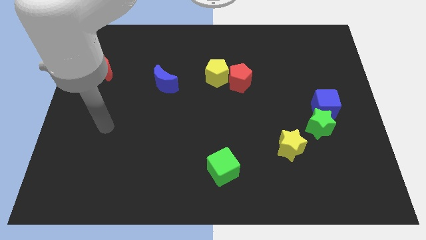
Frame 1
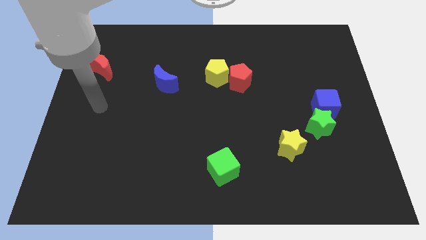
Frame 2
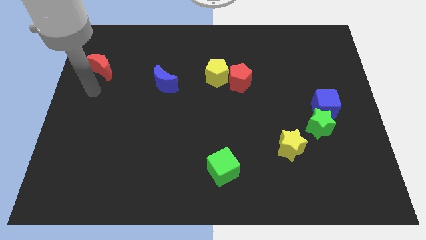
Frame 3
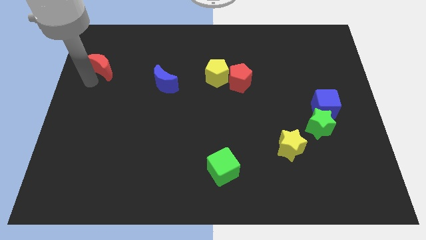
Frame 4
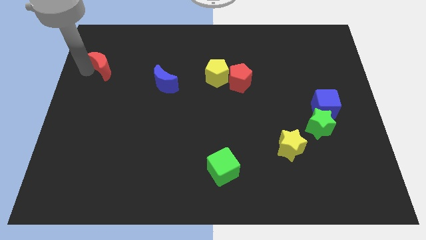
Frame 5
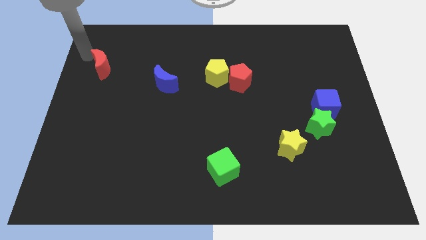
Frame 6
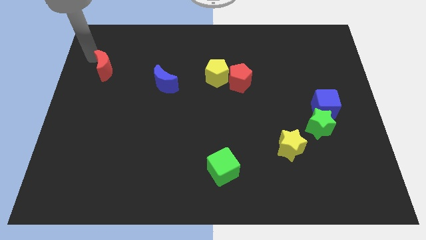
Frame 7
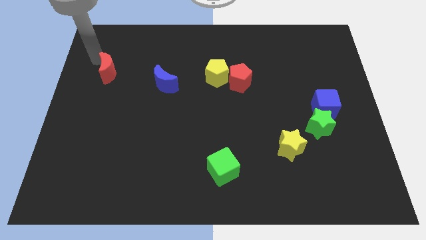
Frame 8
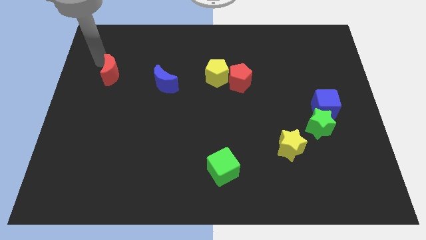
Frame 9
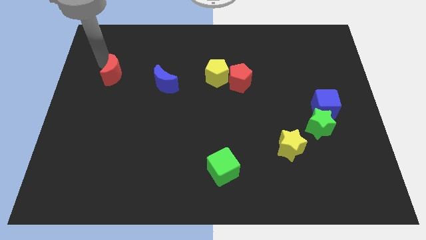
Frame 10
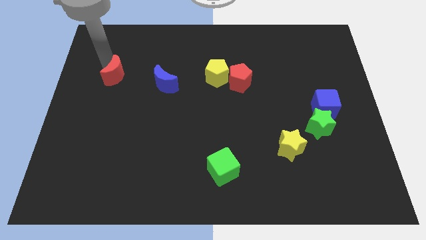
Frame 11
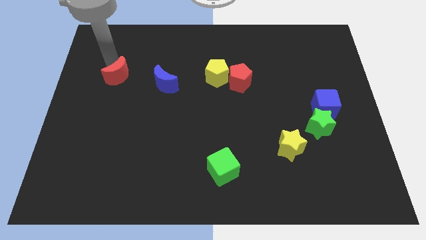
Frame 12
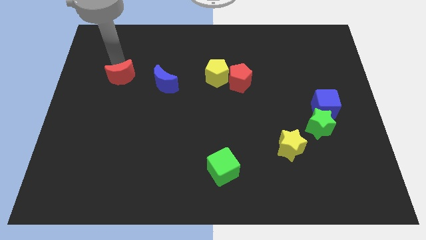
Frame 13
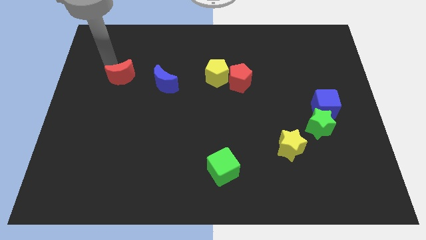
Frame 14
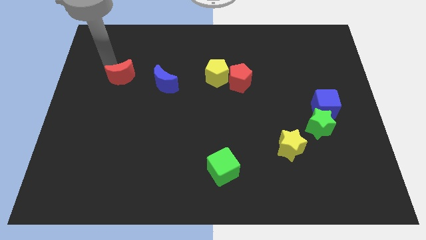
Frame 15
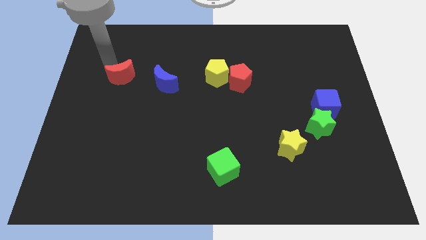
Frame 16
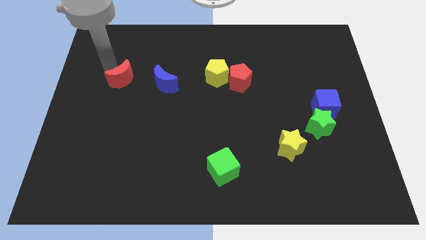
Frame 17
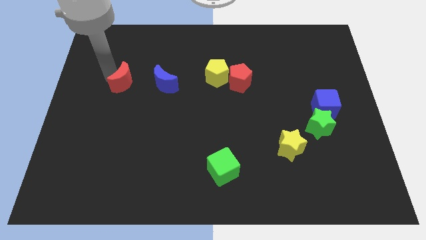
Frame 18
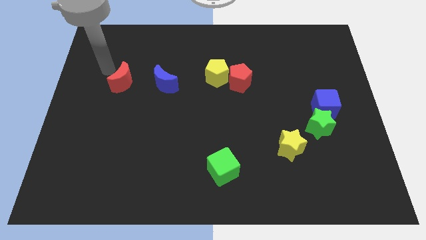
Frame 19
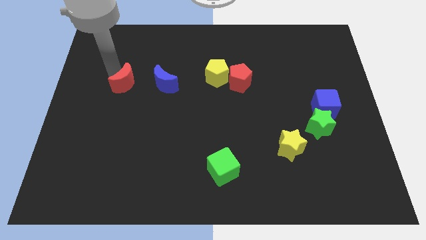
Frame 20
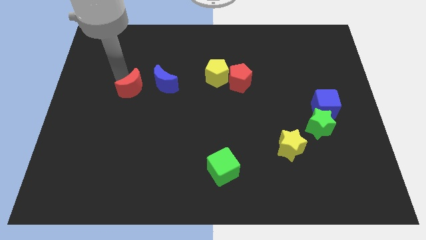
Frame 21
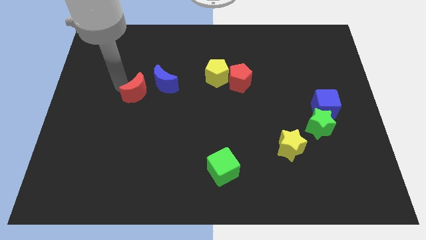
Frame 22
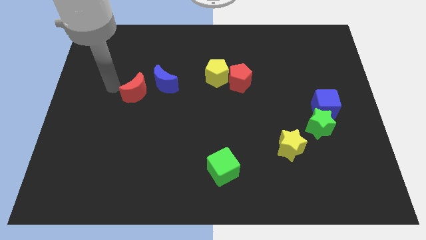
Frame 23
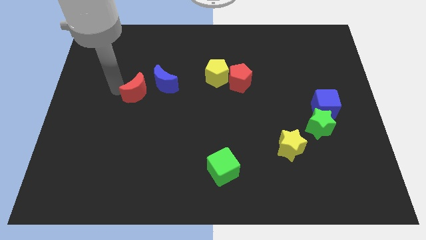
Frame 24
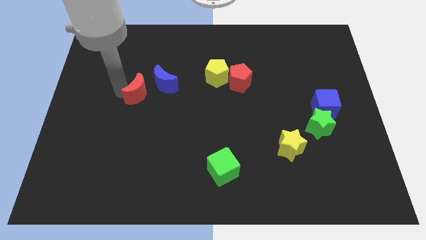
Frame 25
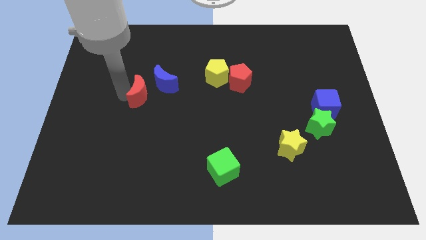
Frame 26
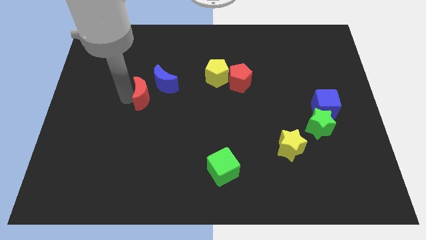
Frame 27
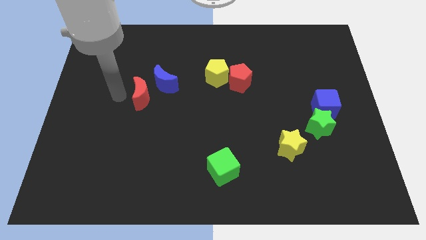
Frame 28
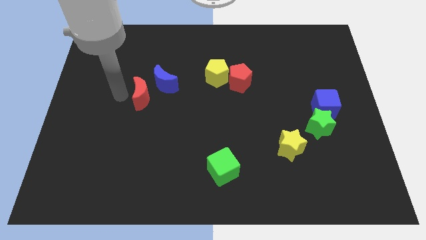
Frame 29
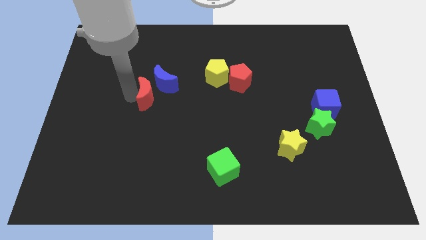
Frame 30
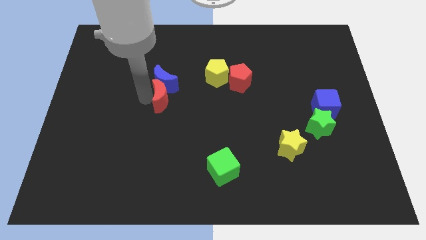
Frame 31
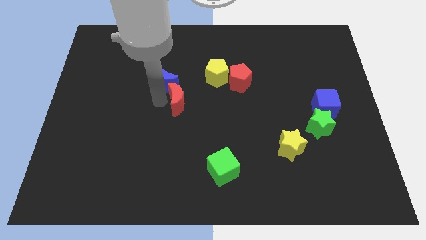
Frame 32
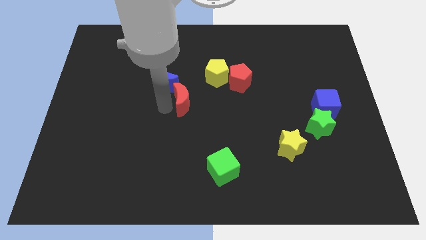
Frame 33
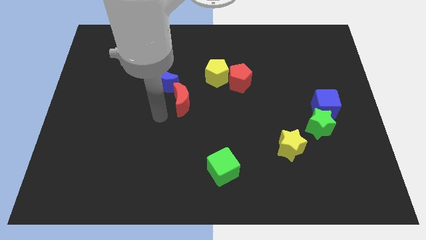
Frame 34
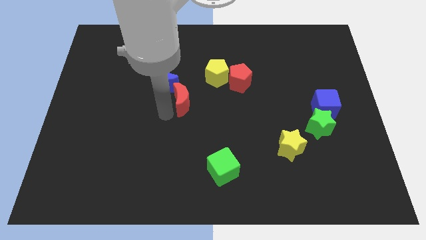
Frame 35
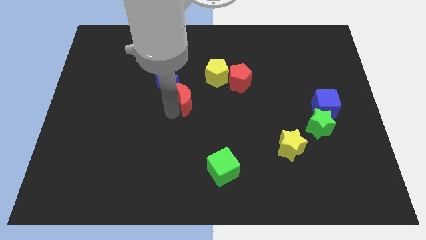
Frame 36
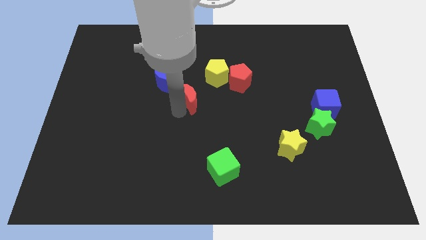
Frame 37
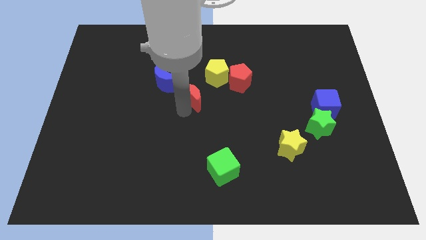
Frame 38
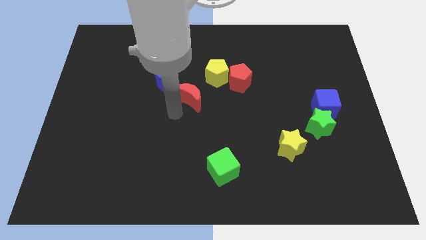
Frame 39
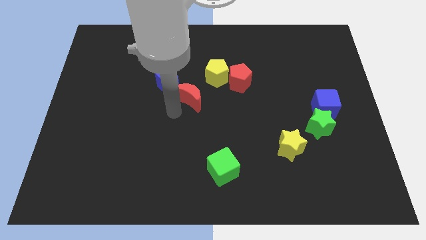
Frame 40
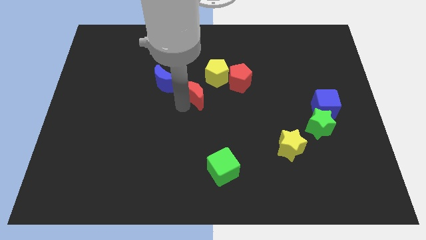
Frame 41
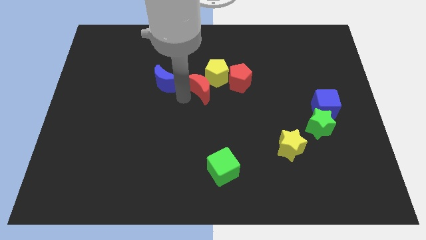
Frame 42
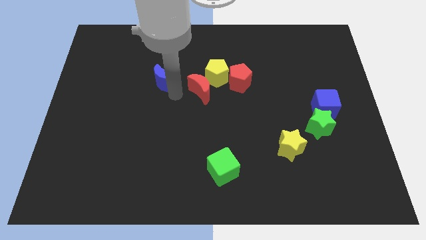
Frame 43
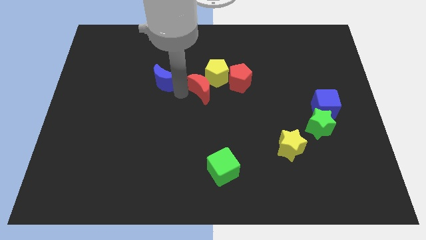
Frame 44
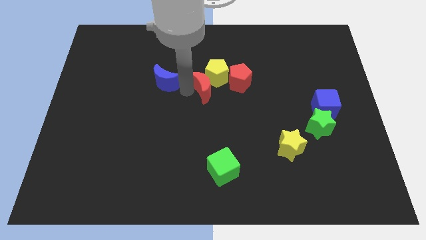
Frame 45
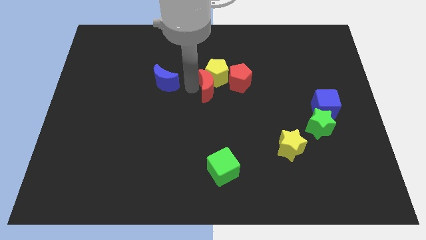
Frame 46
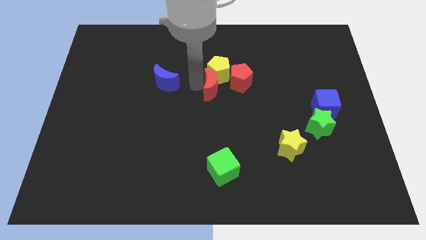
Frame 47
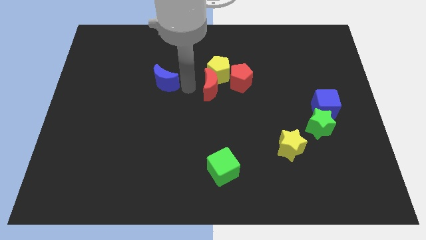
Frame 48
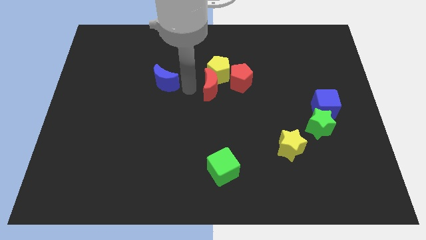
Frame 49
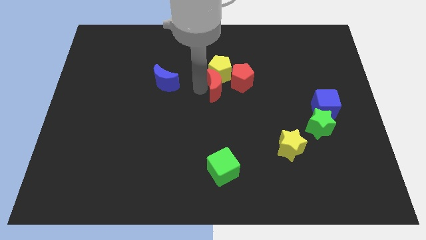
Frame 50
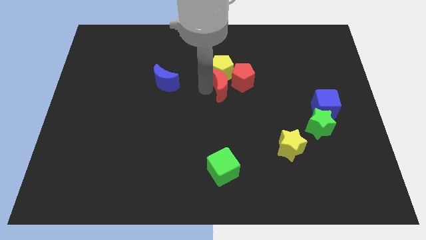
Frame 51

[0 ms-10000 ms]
slide the red moon close to the red pentagon

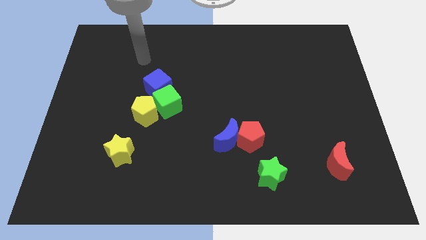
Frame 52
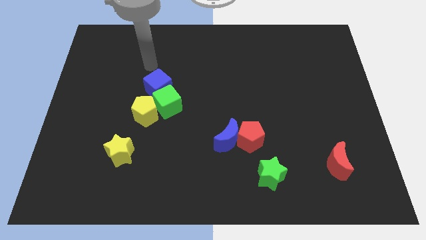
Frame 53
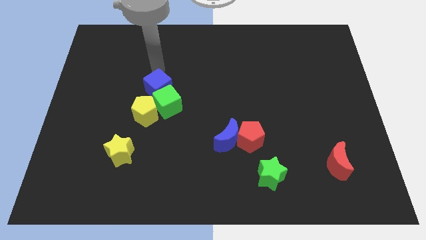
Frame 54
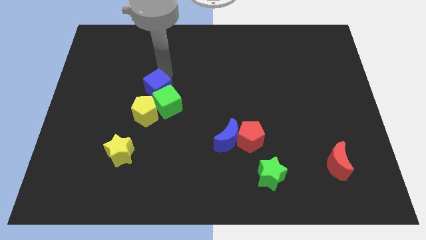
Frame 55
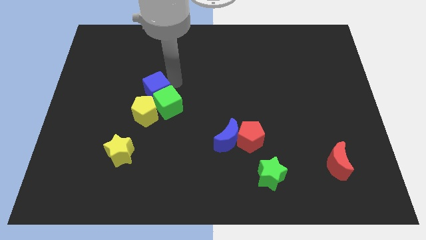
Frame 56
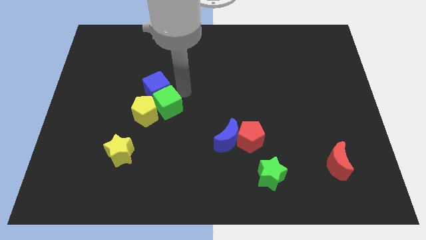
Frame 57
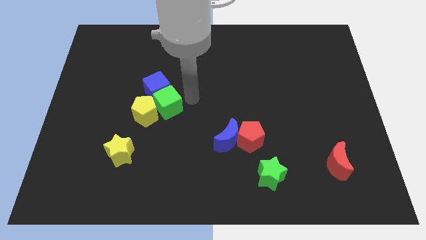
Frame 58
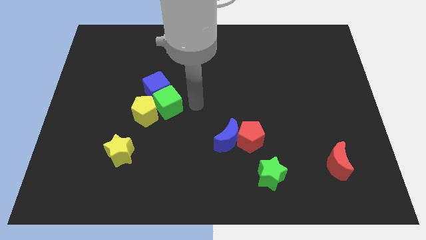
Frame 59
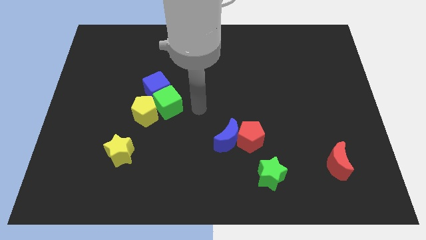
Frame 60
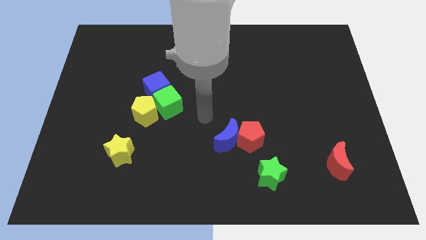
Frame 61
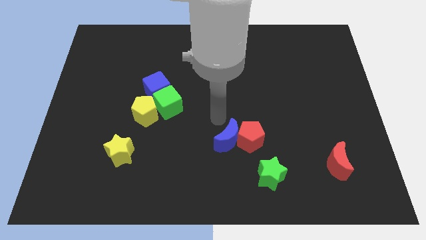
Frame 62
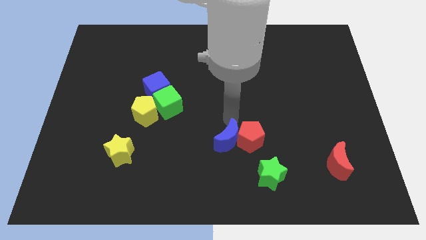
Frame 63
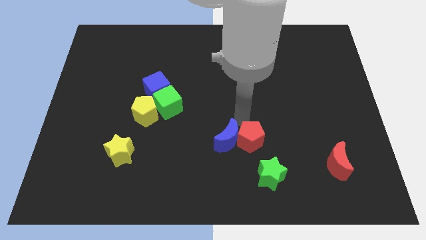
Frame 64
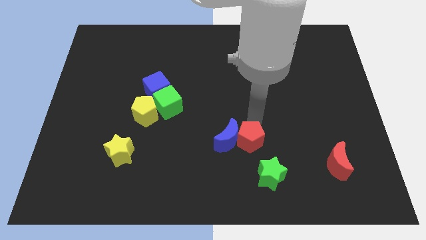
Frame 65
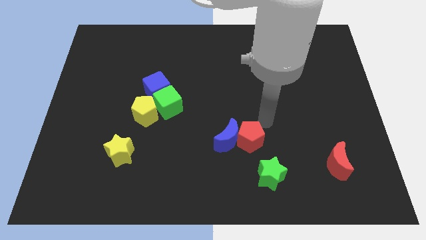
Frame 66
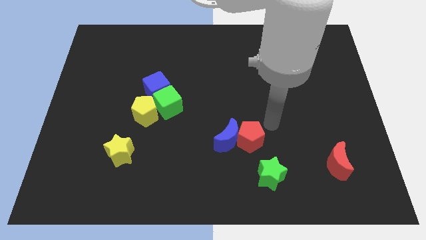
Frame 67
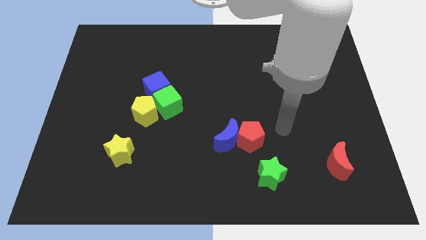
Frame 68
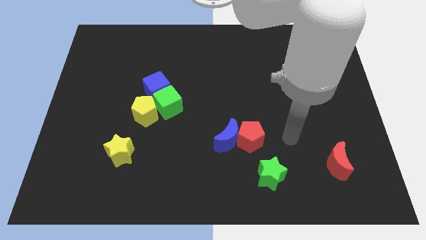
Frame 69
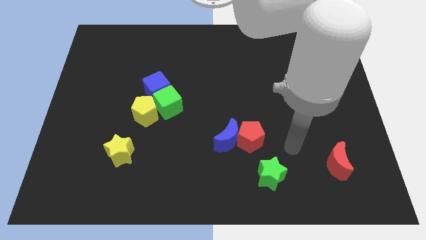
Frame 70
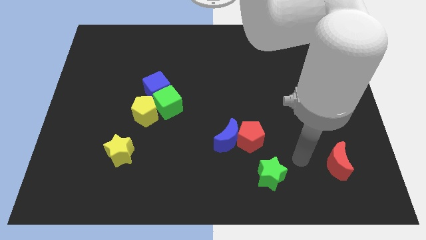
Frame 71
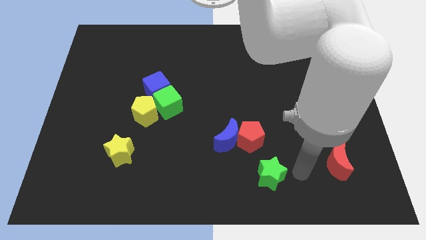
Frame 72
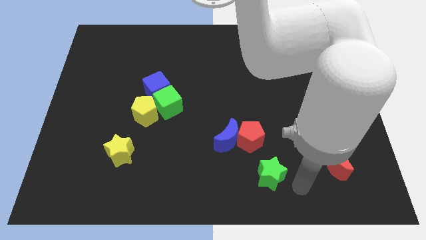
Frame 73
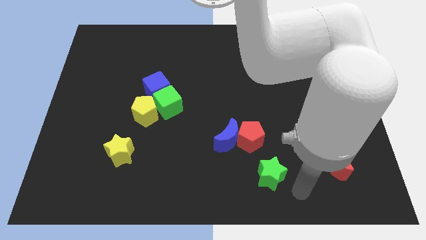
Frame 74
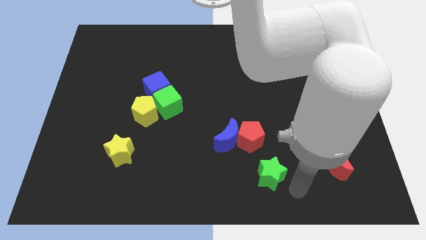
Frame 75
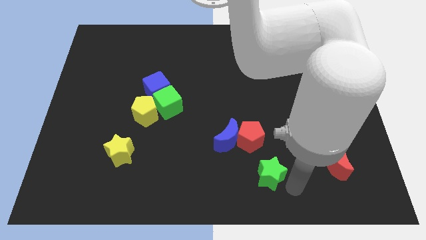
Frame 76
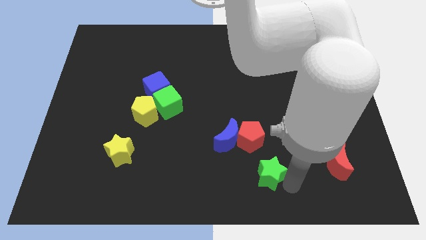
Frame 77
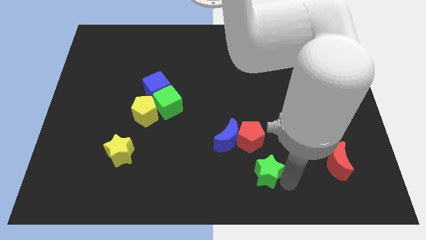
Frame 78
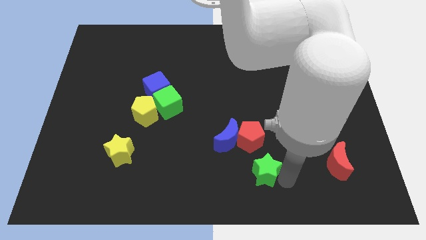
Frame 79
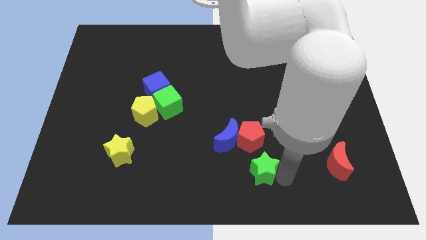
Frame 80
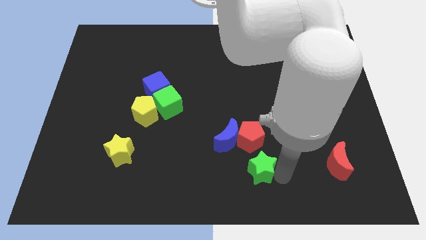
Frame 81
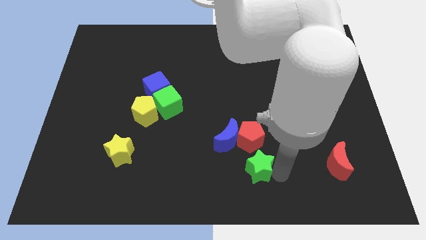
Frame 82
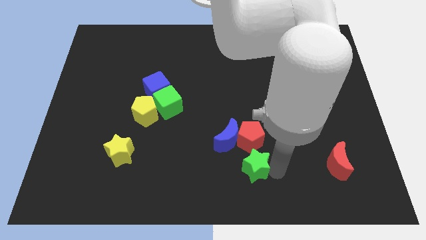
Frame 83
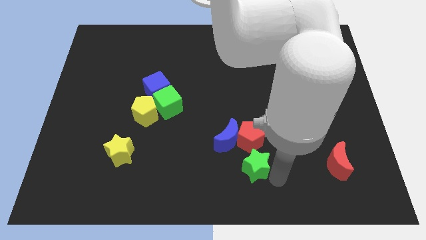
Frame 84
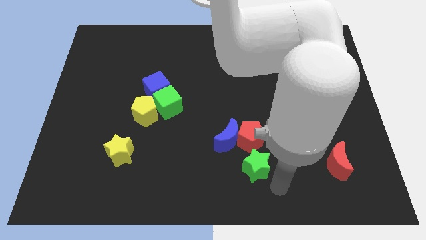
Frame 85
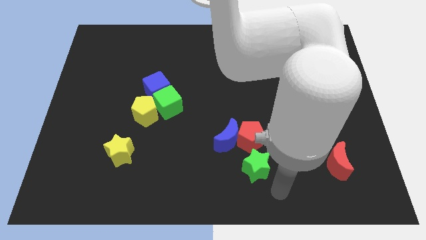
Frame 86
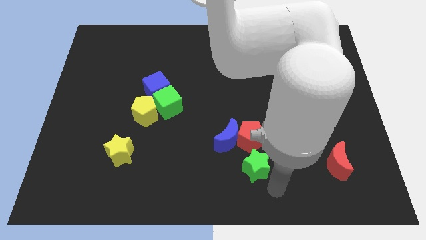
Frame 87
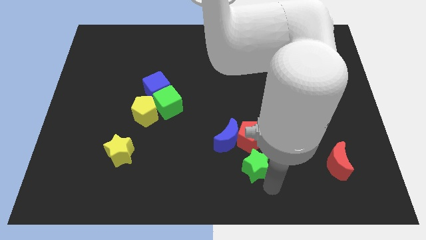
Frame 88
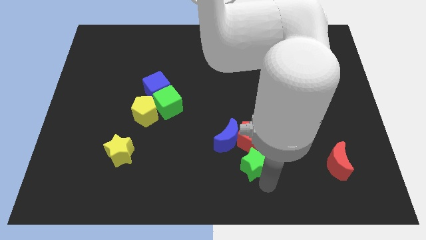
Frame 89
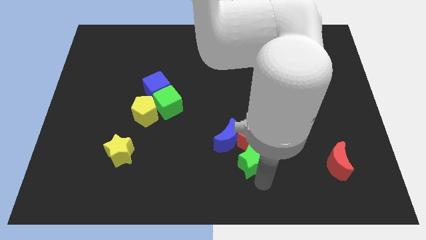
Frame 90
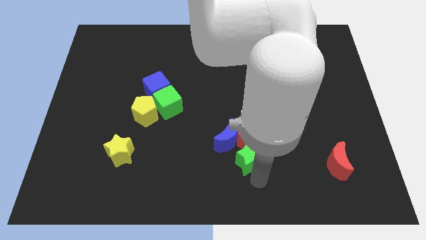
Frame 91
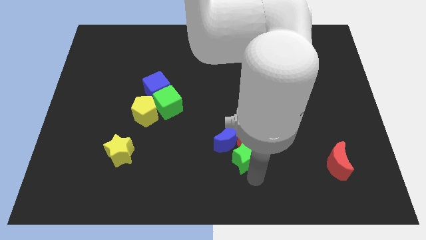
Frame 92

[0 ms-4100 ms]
move the green star towards the blue moon
